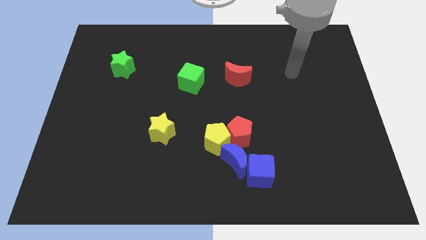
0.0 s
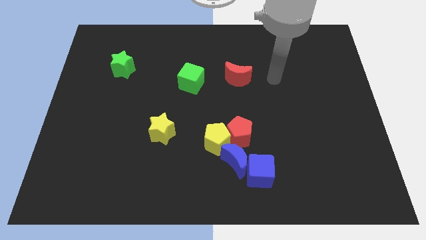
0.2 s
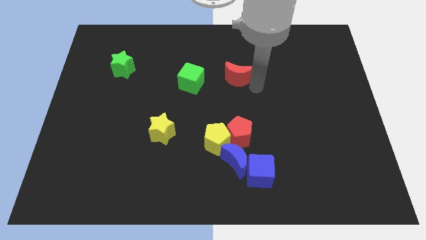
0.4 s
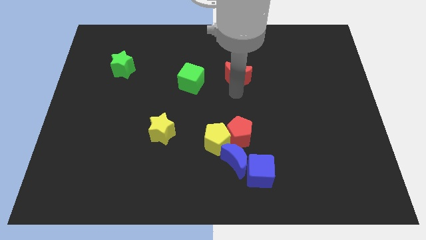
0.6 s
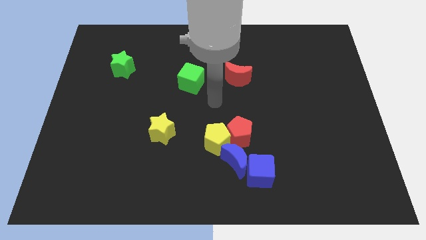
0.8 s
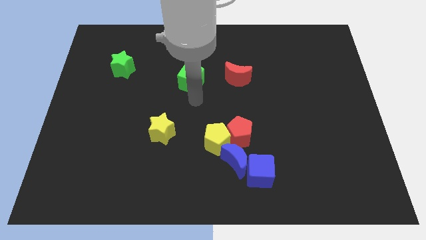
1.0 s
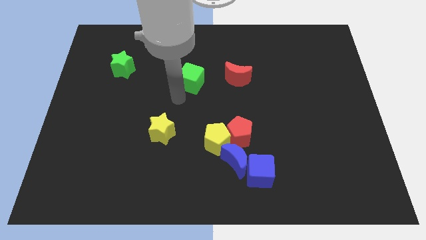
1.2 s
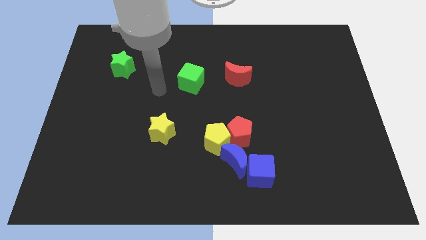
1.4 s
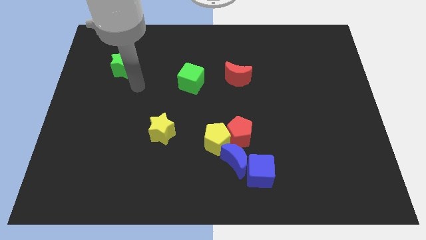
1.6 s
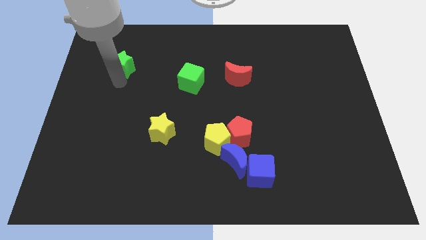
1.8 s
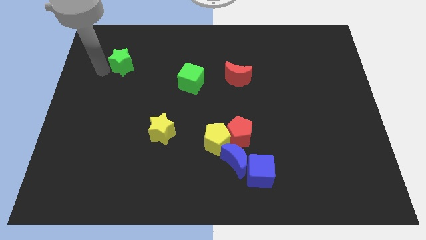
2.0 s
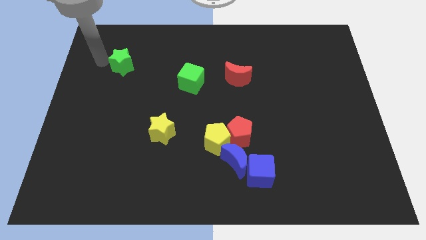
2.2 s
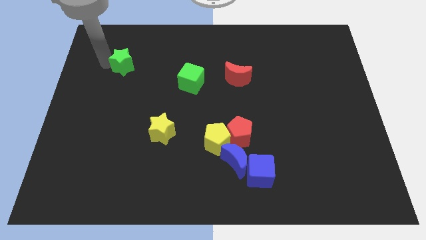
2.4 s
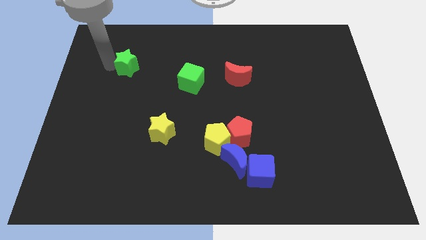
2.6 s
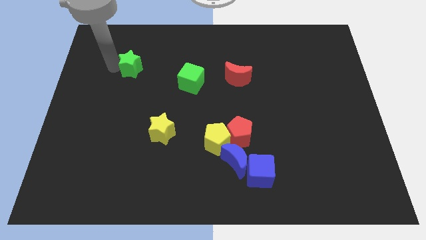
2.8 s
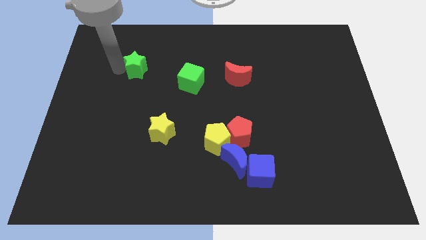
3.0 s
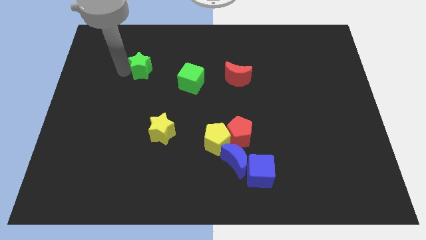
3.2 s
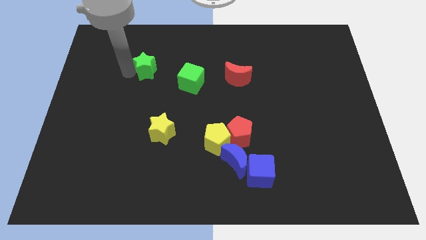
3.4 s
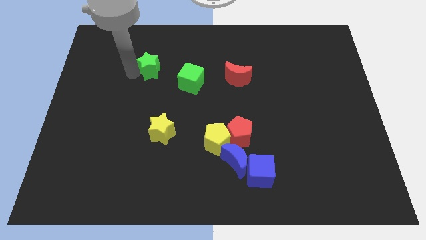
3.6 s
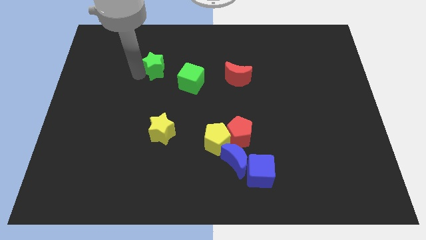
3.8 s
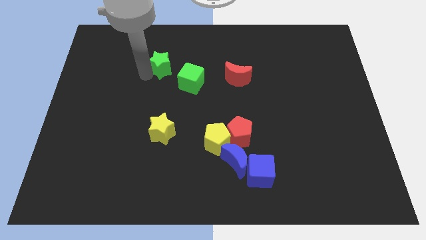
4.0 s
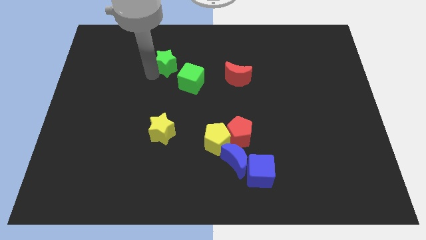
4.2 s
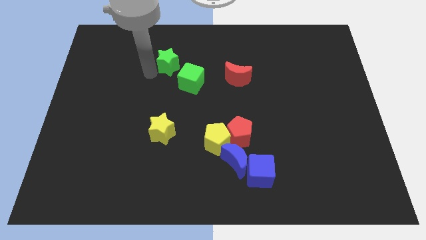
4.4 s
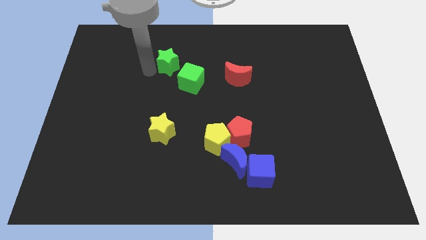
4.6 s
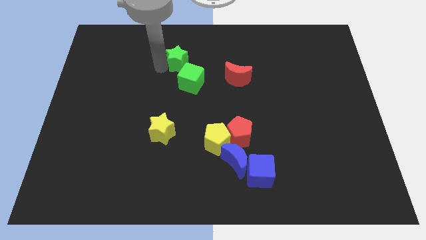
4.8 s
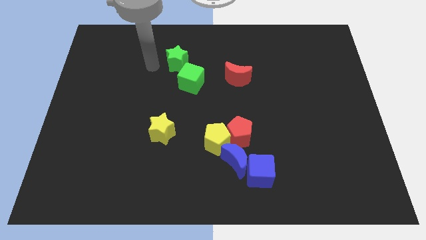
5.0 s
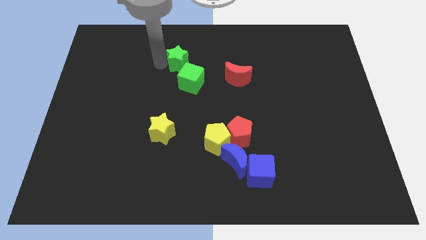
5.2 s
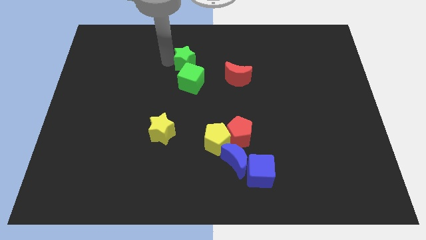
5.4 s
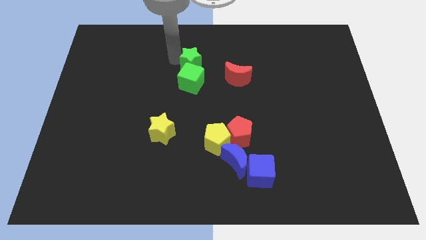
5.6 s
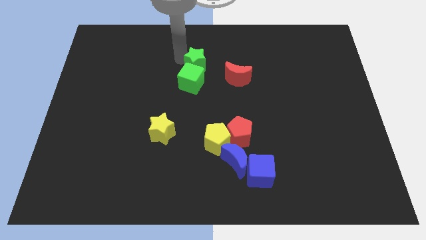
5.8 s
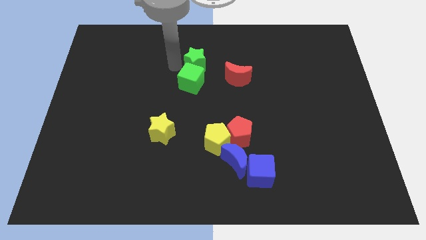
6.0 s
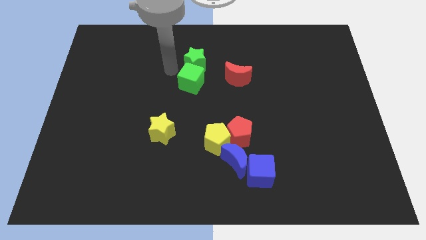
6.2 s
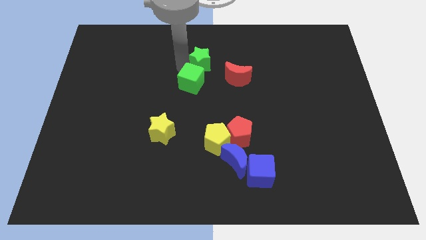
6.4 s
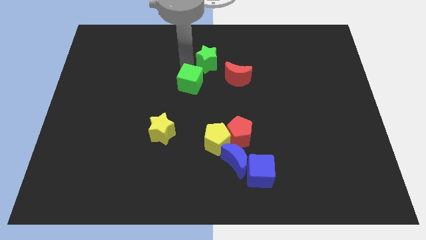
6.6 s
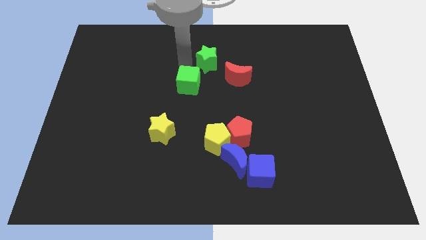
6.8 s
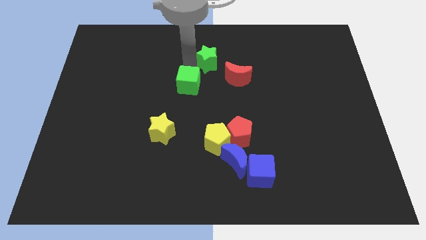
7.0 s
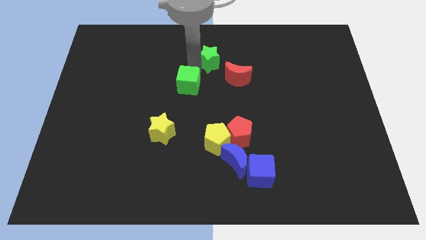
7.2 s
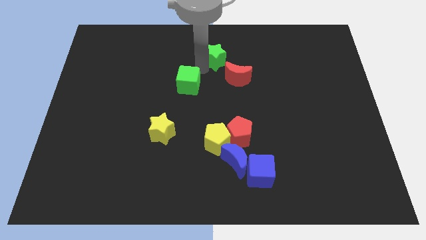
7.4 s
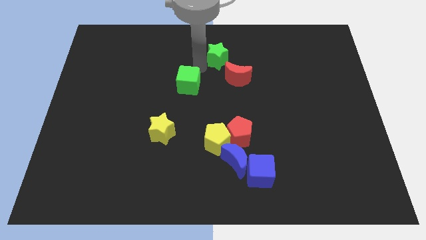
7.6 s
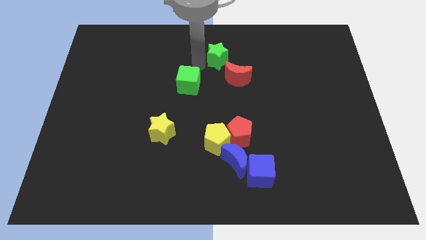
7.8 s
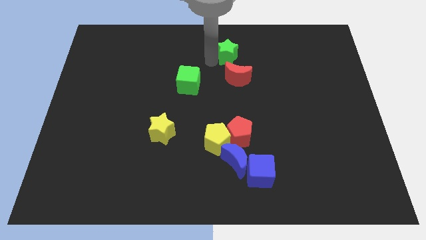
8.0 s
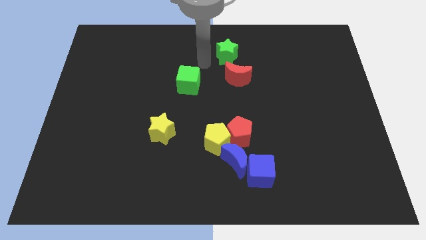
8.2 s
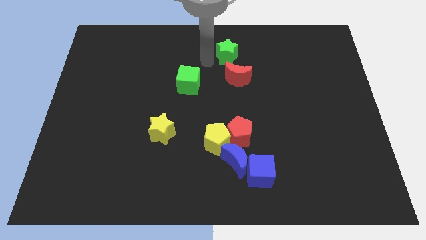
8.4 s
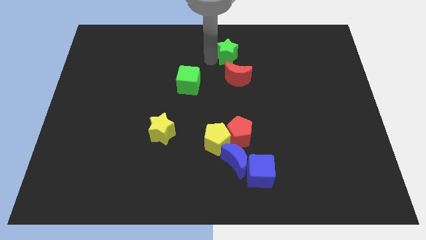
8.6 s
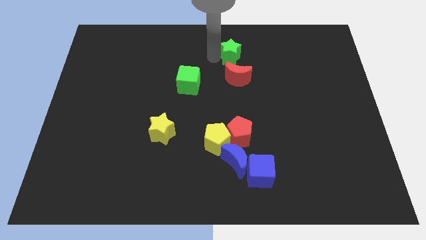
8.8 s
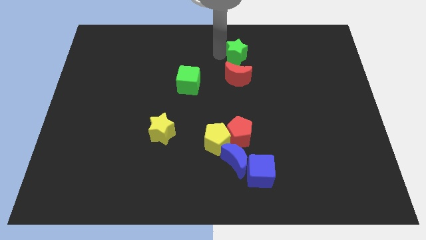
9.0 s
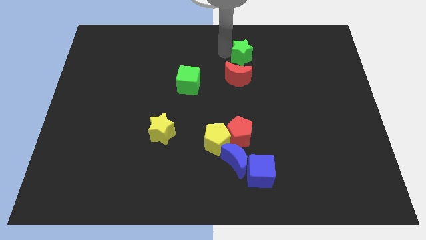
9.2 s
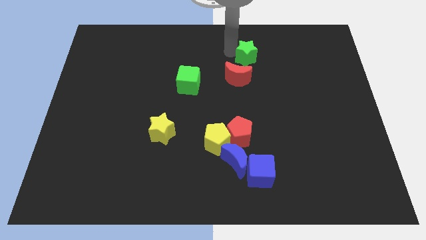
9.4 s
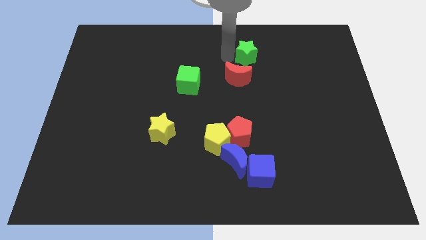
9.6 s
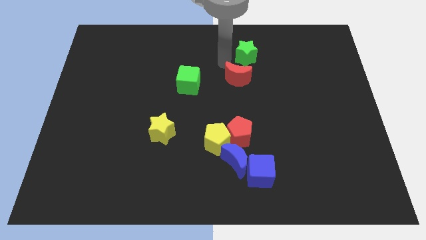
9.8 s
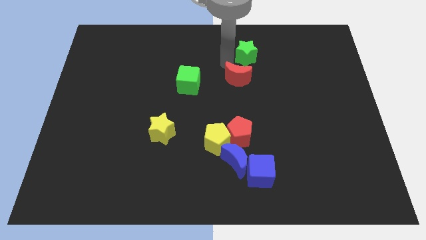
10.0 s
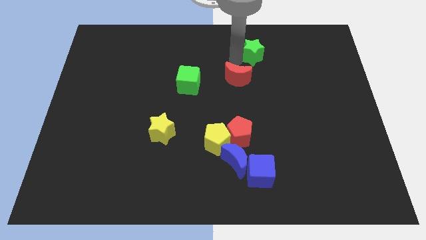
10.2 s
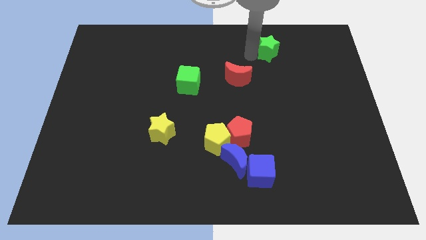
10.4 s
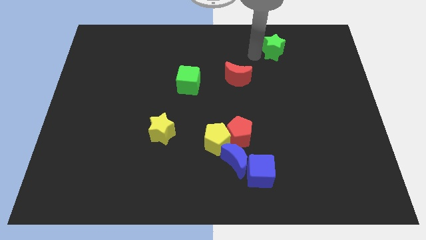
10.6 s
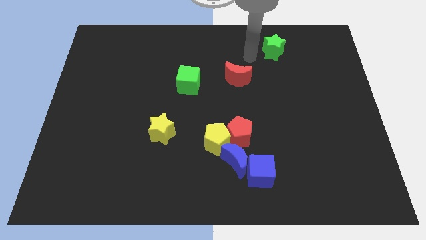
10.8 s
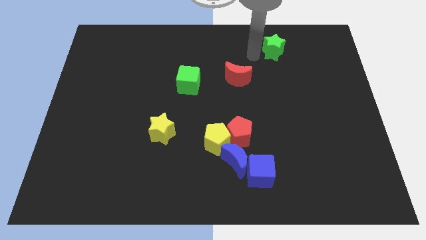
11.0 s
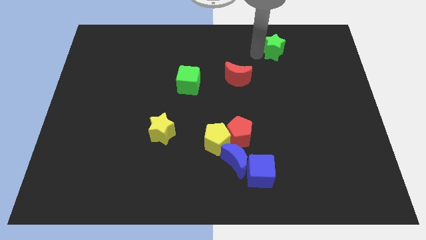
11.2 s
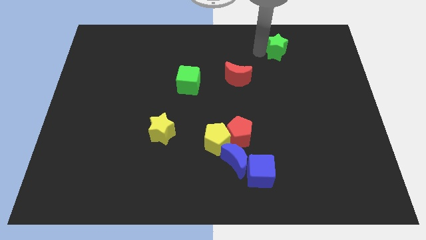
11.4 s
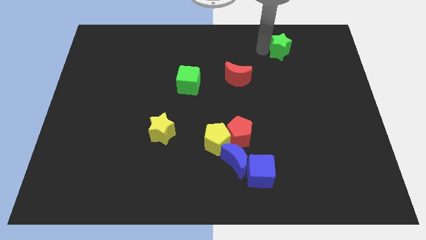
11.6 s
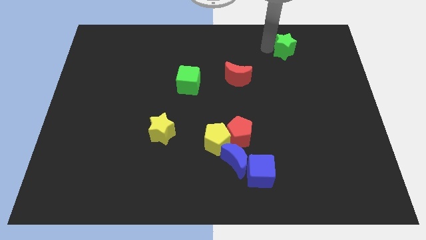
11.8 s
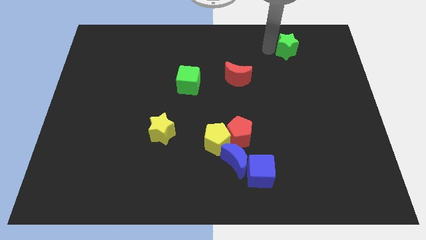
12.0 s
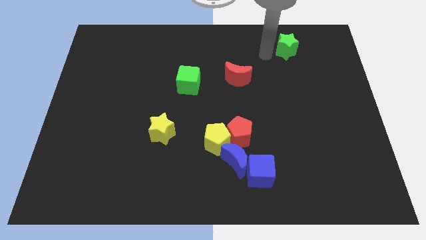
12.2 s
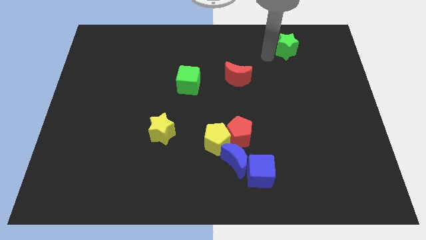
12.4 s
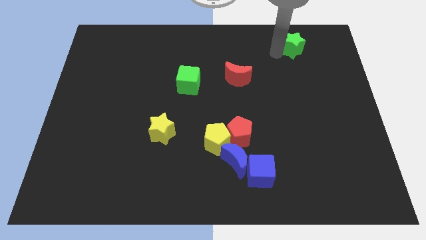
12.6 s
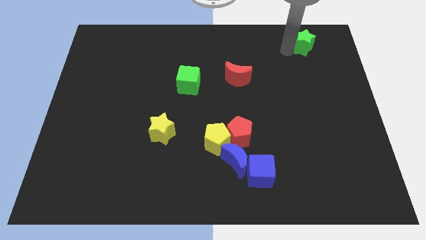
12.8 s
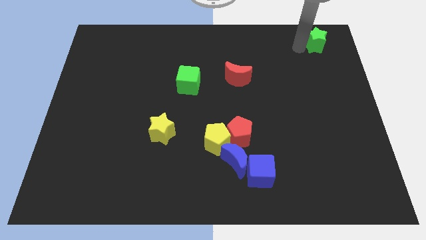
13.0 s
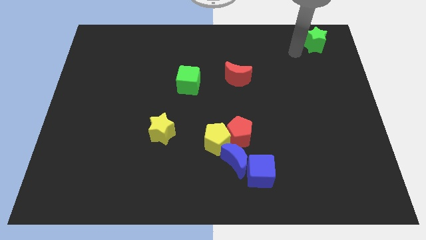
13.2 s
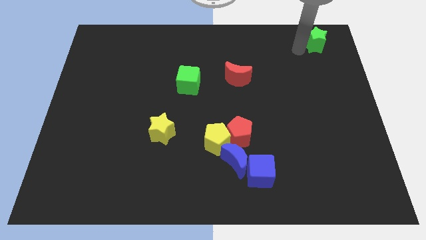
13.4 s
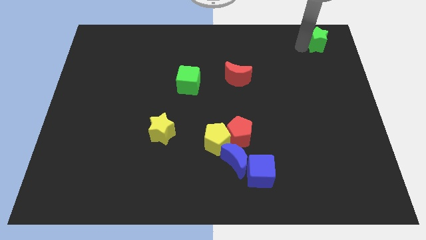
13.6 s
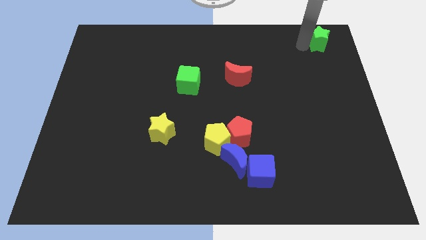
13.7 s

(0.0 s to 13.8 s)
slide the green star to the top right corner
